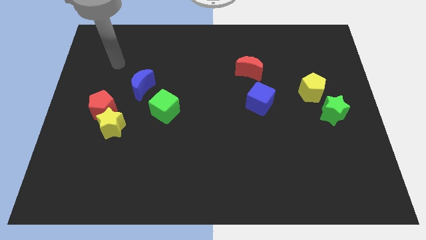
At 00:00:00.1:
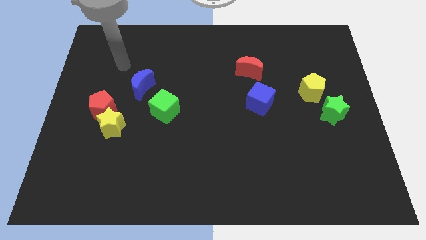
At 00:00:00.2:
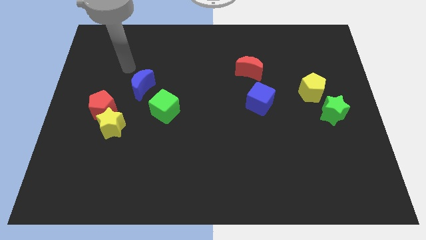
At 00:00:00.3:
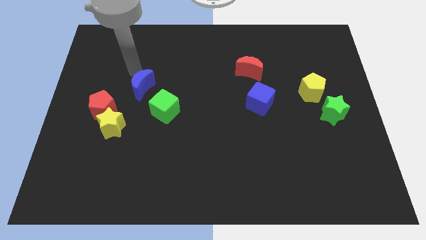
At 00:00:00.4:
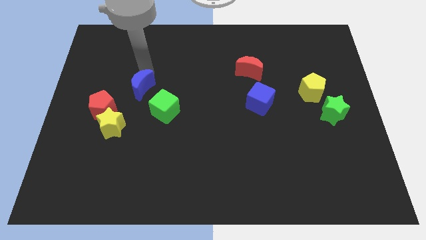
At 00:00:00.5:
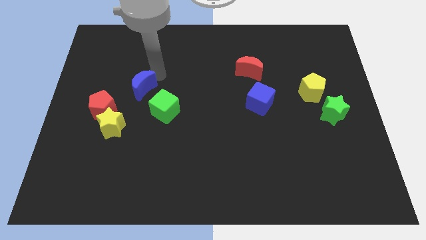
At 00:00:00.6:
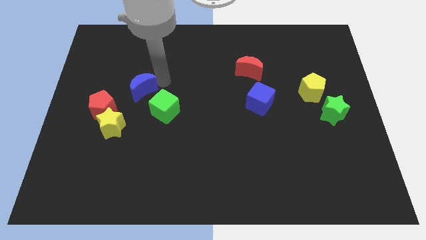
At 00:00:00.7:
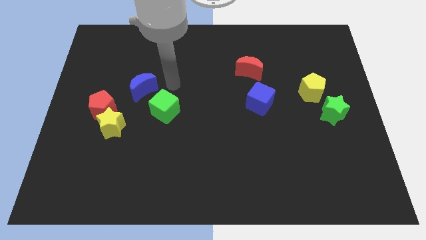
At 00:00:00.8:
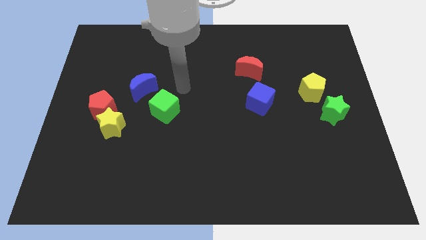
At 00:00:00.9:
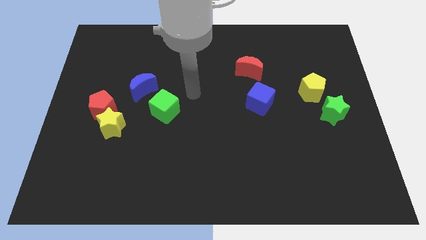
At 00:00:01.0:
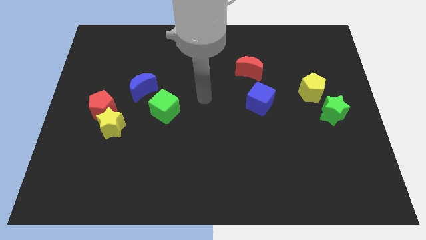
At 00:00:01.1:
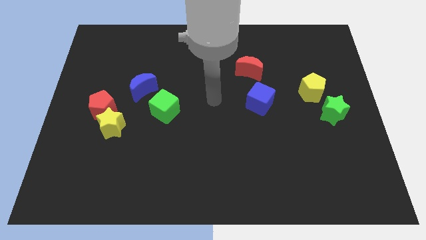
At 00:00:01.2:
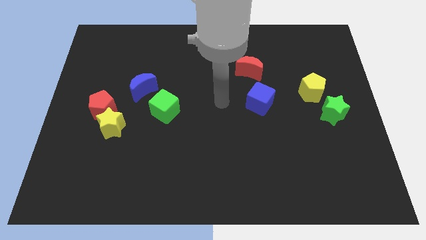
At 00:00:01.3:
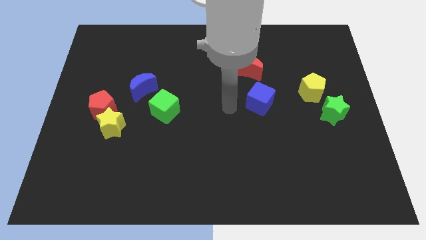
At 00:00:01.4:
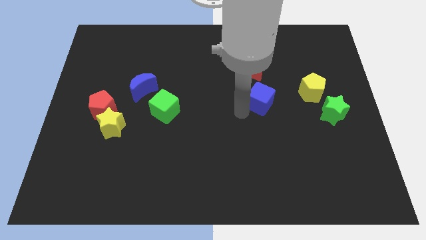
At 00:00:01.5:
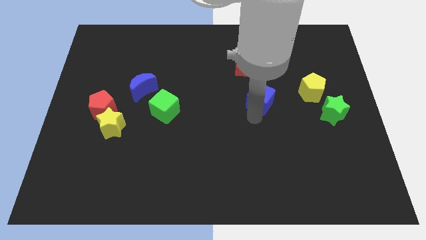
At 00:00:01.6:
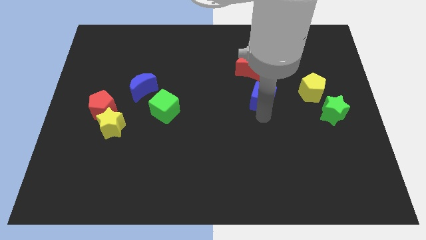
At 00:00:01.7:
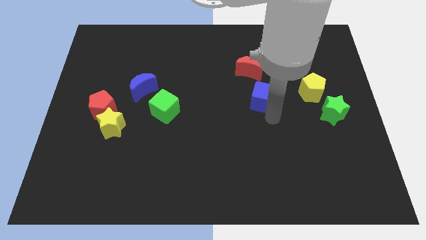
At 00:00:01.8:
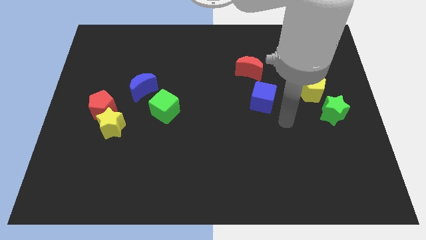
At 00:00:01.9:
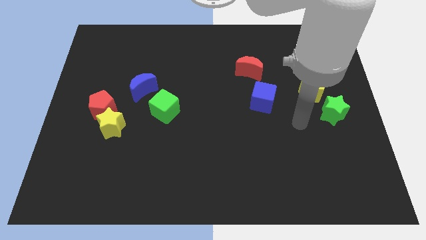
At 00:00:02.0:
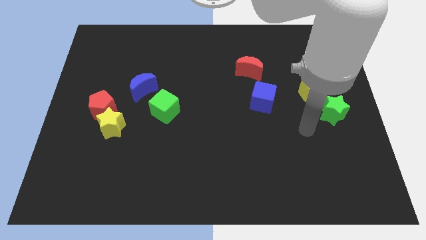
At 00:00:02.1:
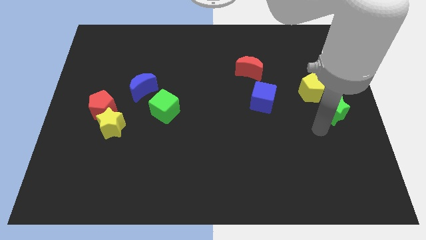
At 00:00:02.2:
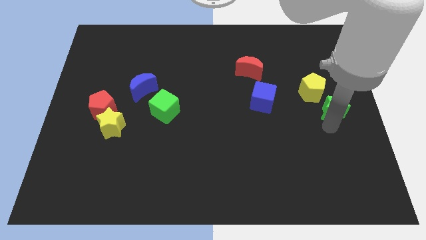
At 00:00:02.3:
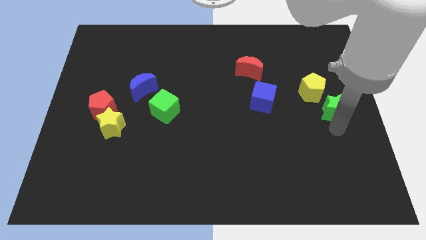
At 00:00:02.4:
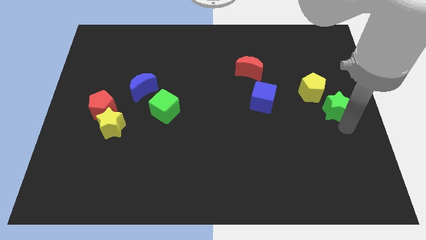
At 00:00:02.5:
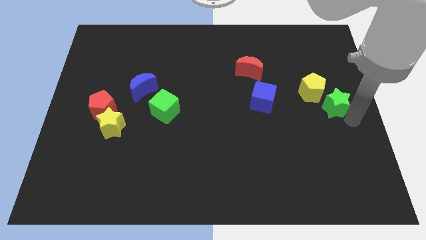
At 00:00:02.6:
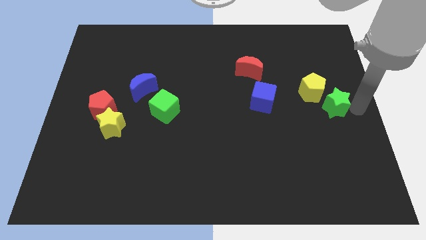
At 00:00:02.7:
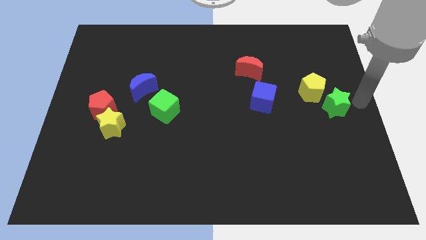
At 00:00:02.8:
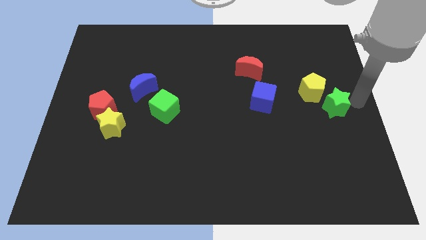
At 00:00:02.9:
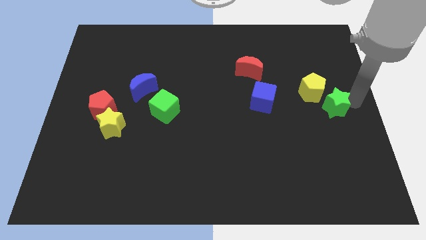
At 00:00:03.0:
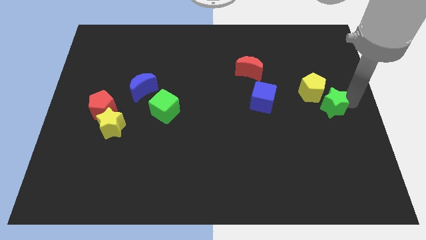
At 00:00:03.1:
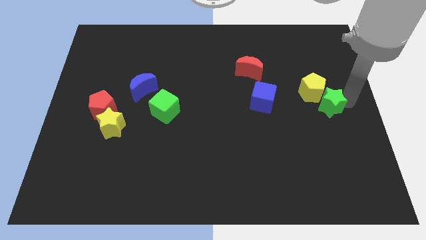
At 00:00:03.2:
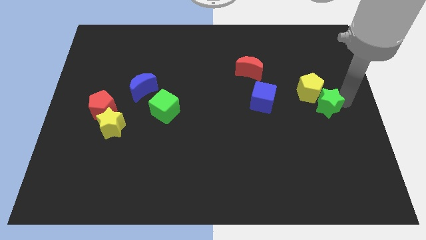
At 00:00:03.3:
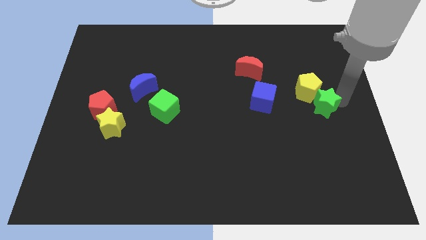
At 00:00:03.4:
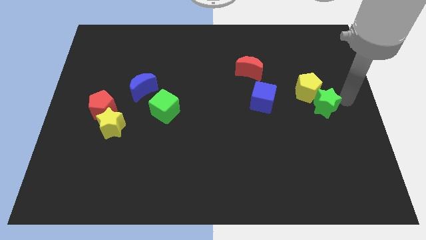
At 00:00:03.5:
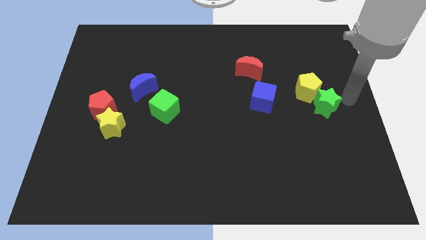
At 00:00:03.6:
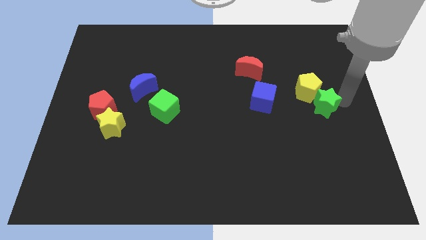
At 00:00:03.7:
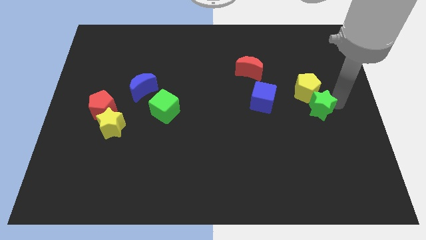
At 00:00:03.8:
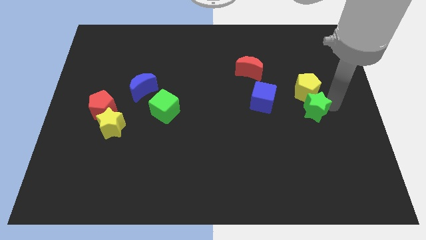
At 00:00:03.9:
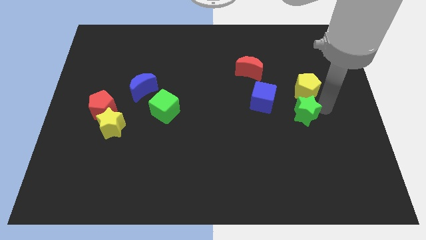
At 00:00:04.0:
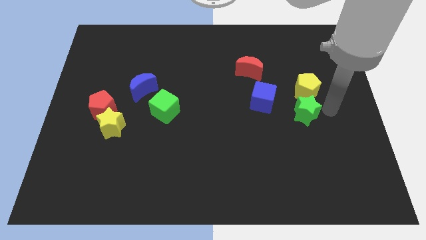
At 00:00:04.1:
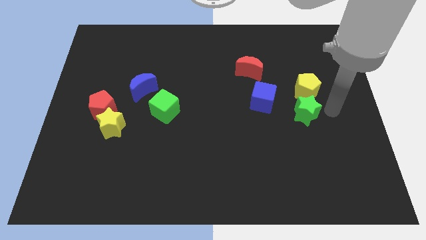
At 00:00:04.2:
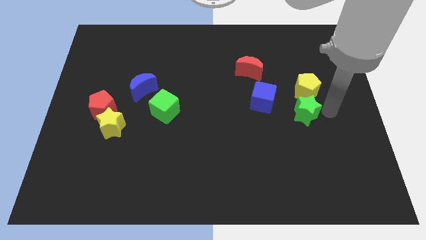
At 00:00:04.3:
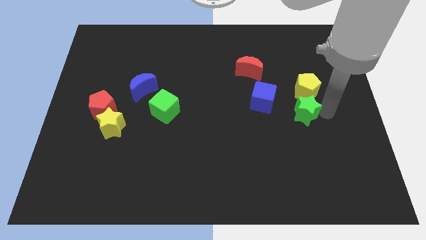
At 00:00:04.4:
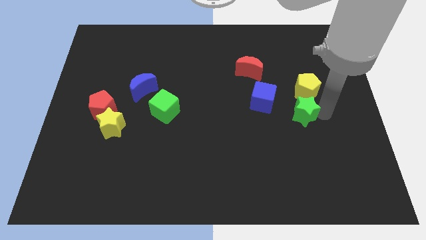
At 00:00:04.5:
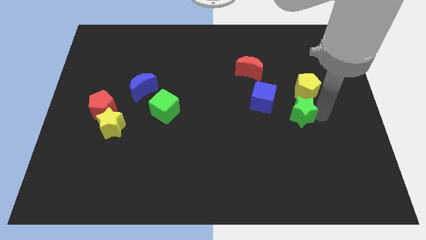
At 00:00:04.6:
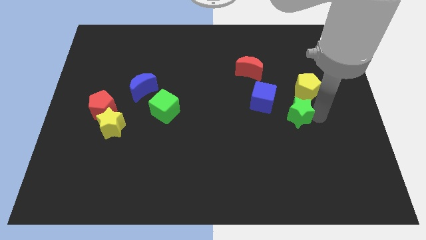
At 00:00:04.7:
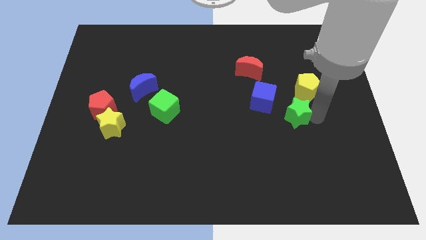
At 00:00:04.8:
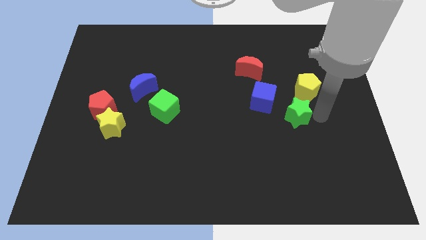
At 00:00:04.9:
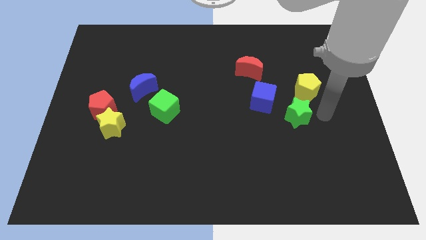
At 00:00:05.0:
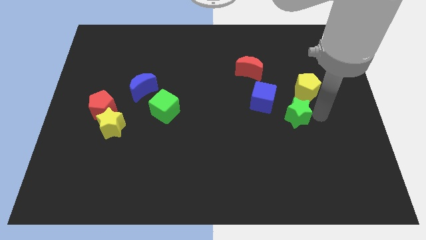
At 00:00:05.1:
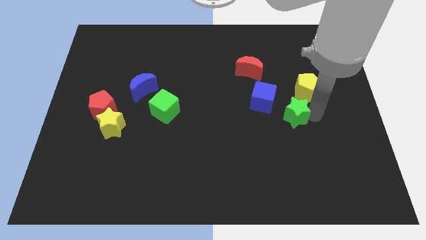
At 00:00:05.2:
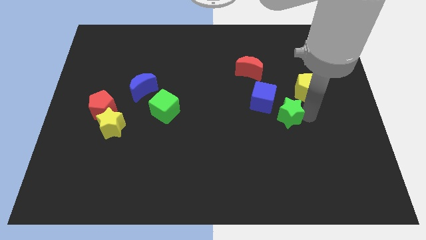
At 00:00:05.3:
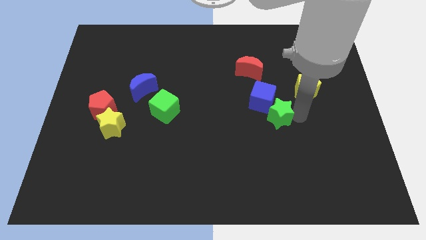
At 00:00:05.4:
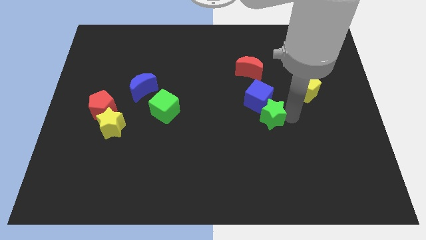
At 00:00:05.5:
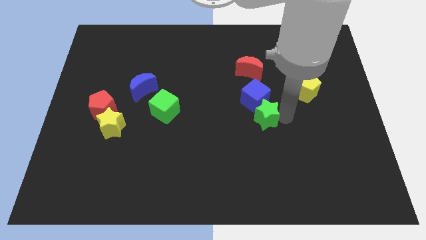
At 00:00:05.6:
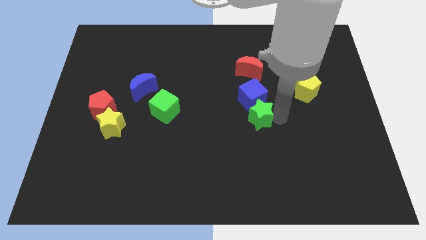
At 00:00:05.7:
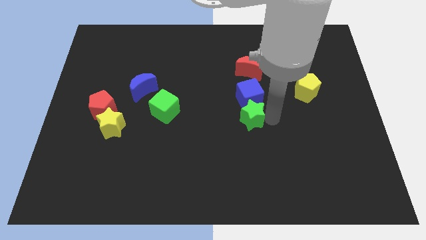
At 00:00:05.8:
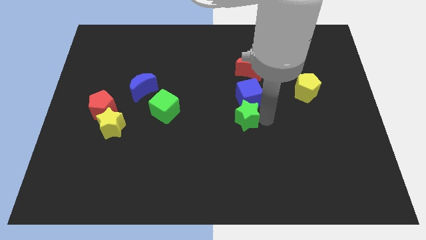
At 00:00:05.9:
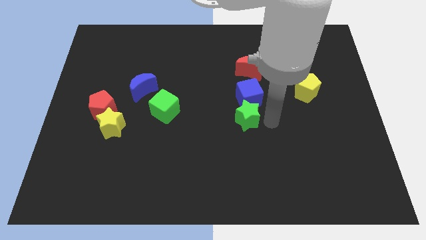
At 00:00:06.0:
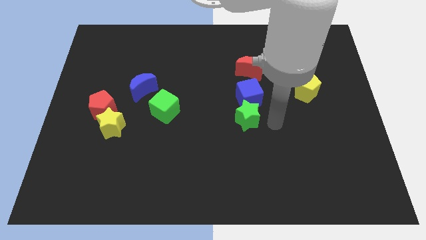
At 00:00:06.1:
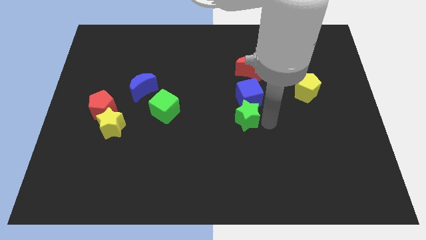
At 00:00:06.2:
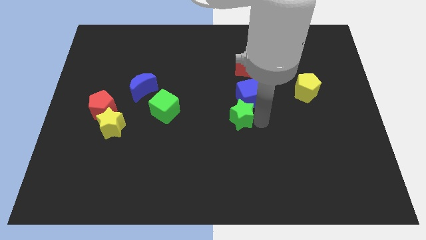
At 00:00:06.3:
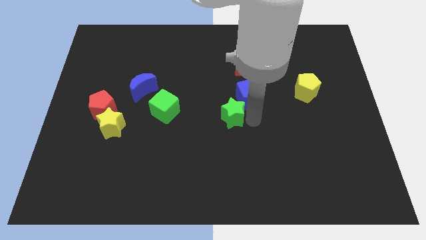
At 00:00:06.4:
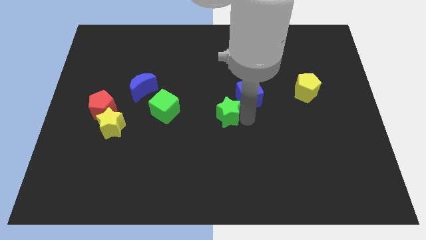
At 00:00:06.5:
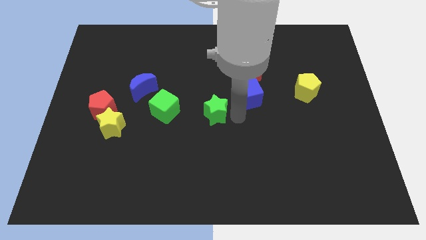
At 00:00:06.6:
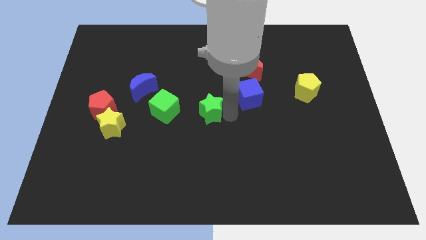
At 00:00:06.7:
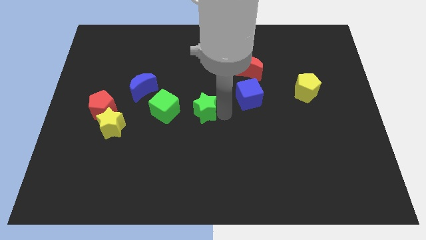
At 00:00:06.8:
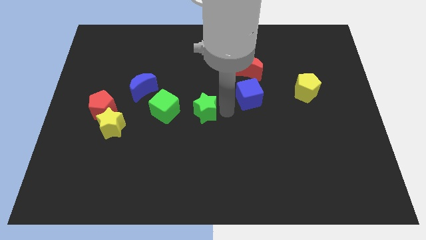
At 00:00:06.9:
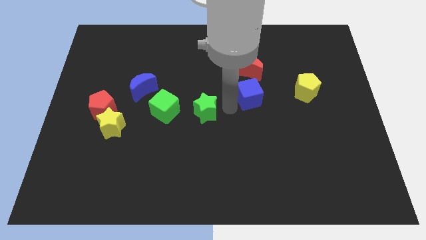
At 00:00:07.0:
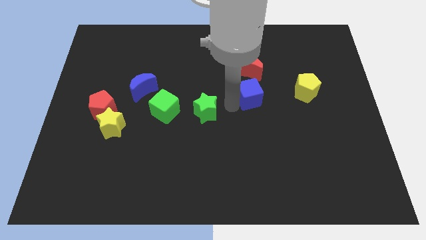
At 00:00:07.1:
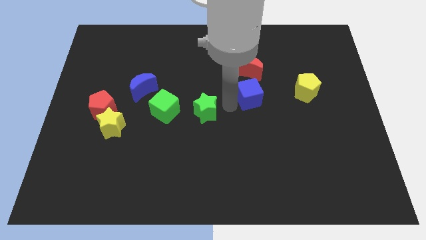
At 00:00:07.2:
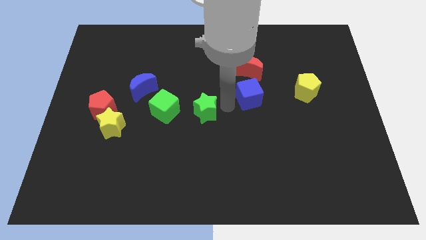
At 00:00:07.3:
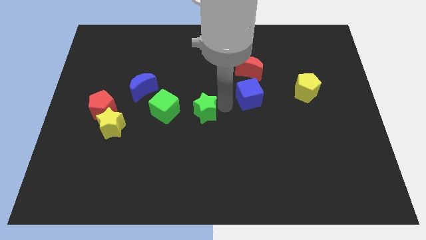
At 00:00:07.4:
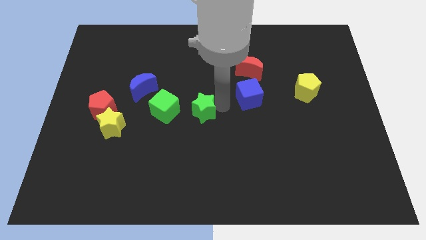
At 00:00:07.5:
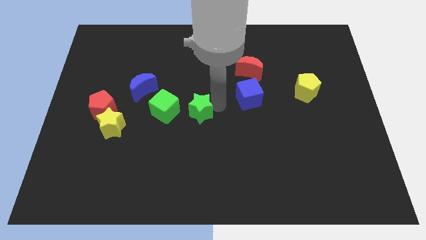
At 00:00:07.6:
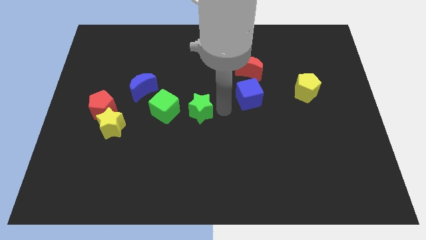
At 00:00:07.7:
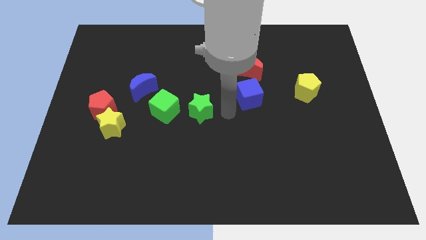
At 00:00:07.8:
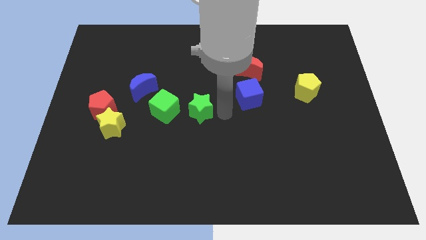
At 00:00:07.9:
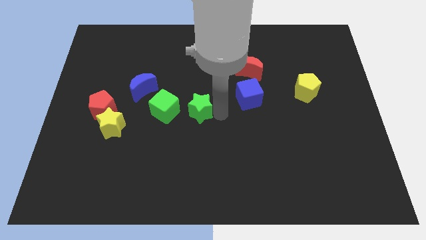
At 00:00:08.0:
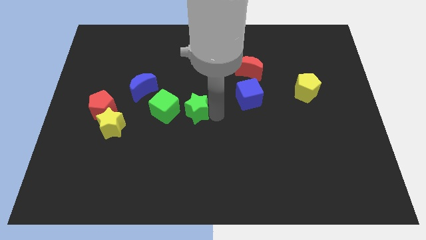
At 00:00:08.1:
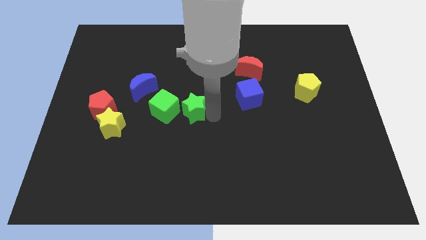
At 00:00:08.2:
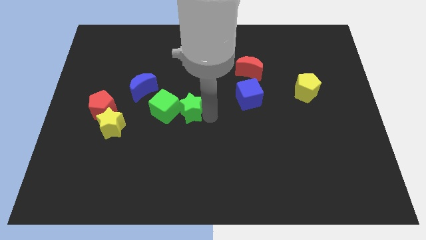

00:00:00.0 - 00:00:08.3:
put the green star next to the green cube
